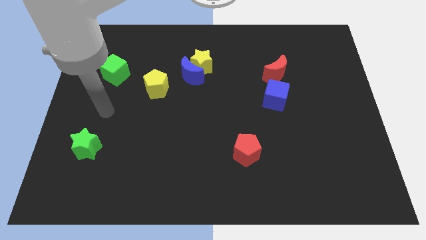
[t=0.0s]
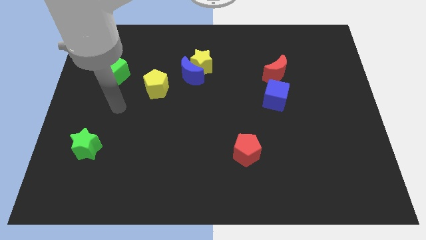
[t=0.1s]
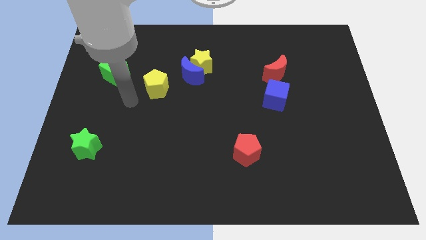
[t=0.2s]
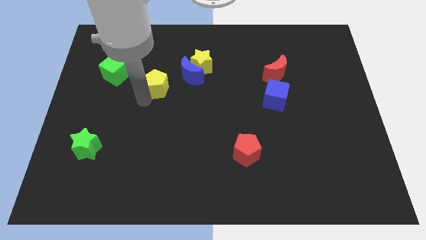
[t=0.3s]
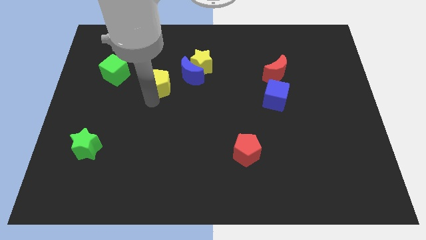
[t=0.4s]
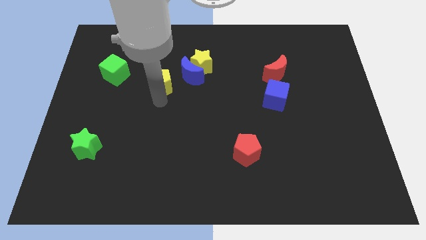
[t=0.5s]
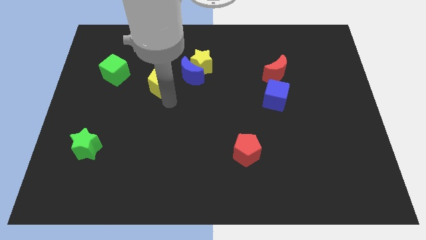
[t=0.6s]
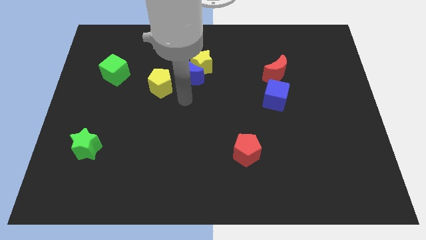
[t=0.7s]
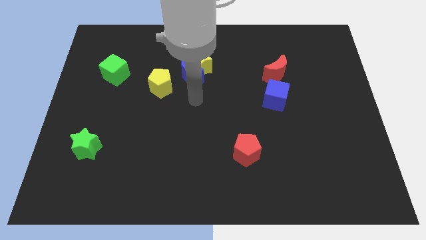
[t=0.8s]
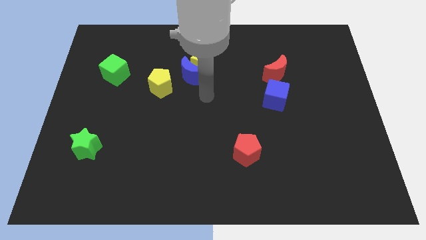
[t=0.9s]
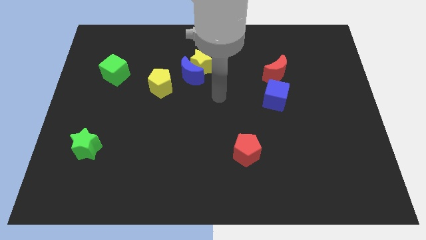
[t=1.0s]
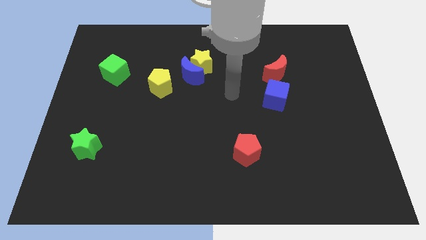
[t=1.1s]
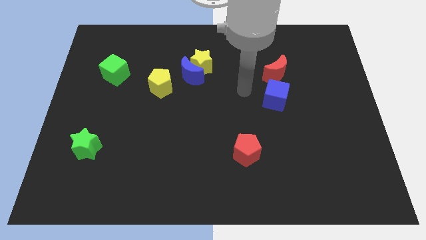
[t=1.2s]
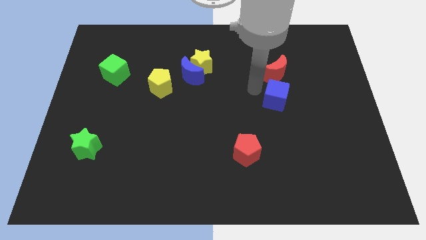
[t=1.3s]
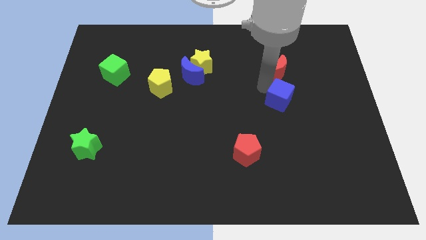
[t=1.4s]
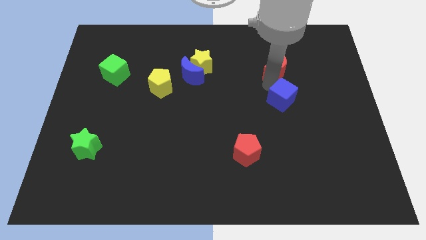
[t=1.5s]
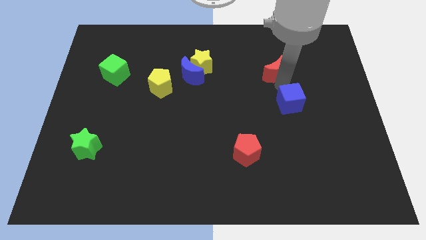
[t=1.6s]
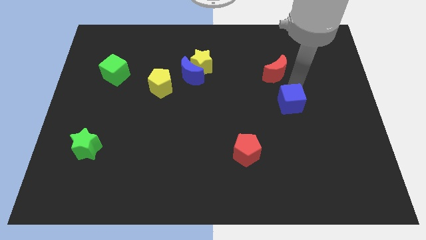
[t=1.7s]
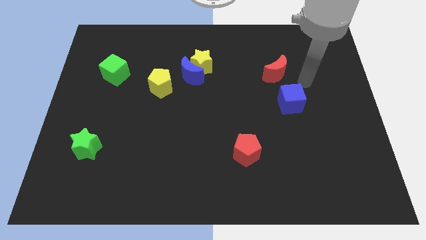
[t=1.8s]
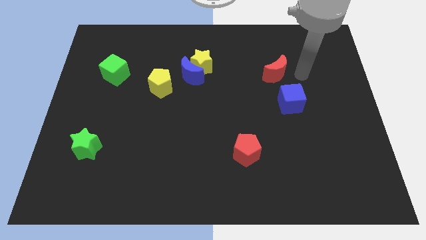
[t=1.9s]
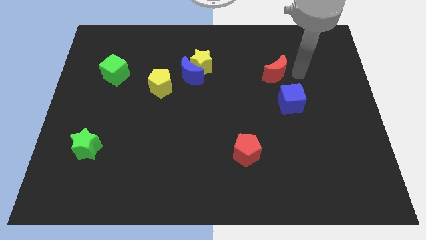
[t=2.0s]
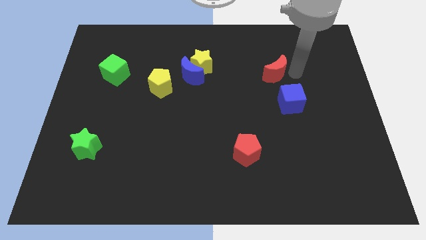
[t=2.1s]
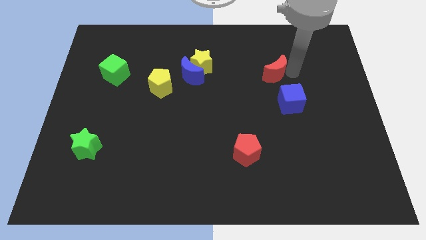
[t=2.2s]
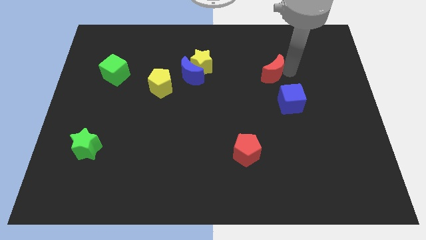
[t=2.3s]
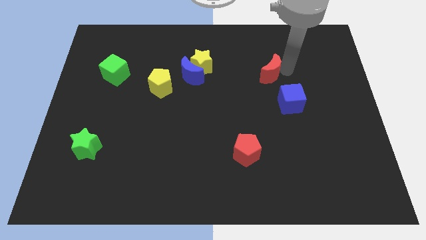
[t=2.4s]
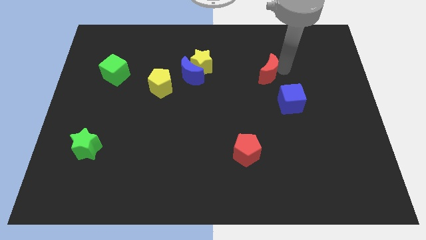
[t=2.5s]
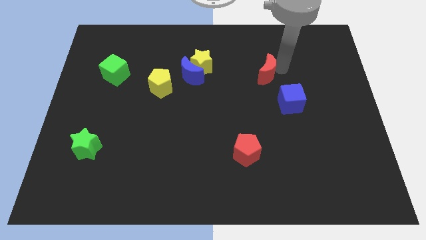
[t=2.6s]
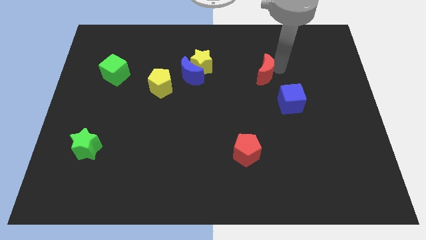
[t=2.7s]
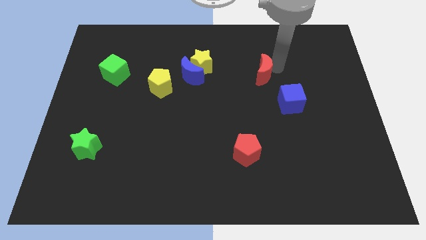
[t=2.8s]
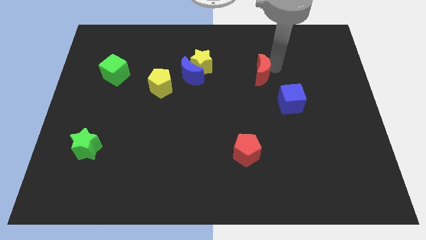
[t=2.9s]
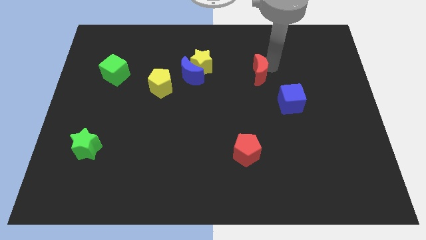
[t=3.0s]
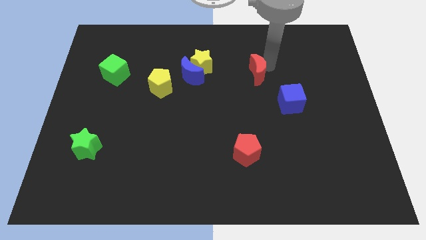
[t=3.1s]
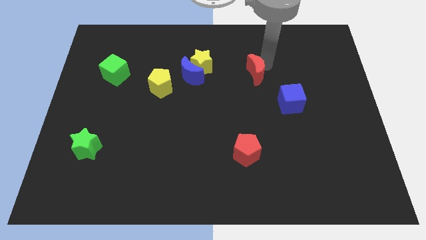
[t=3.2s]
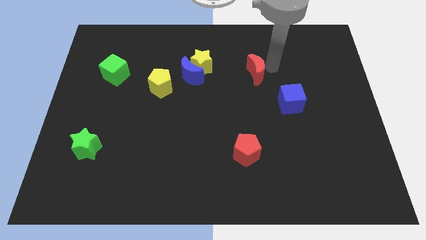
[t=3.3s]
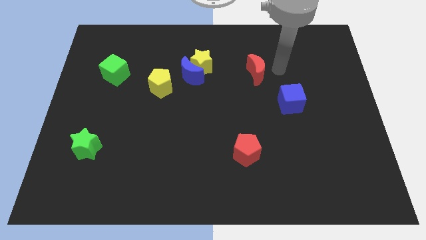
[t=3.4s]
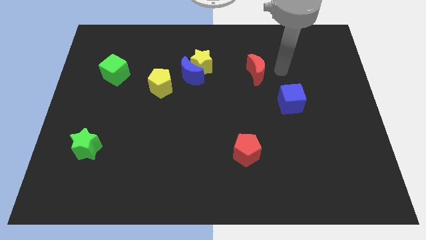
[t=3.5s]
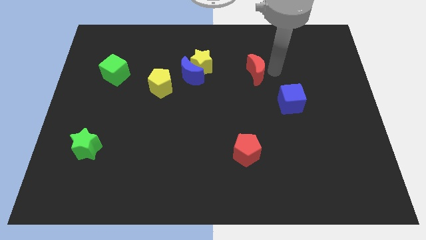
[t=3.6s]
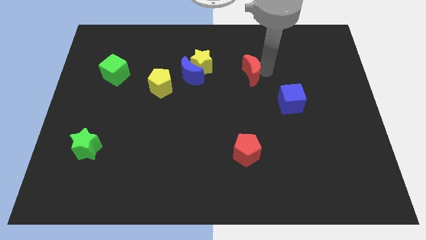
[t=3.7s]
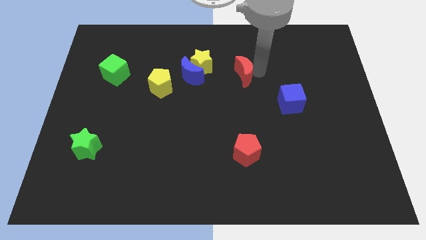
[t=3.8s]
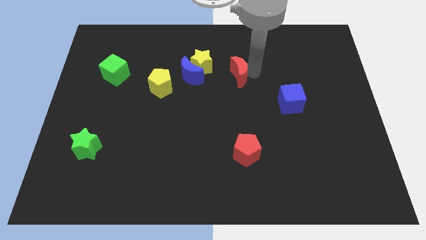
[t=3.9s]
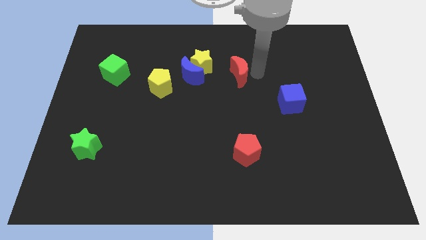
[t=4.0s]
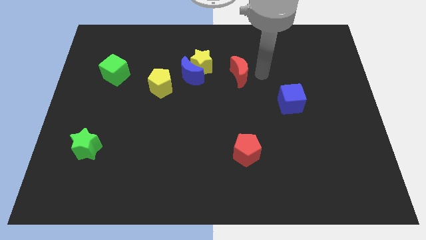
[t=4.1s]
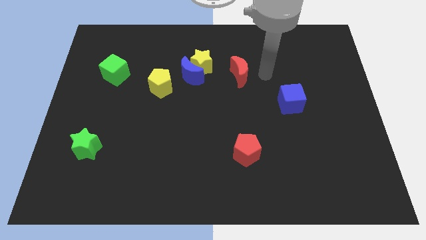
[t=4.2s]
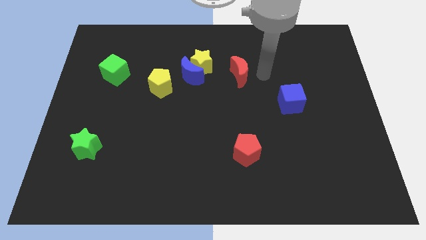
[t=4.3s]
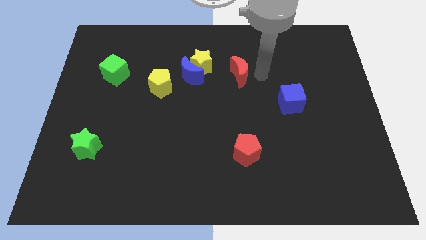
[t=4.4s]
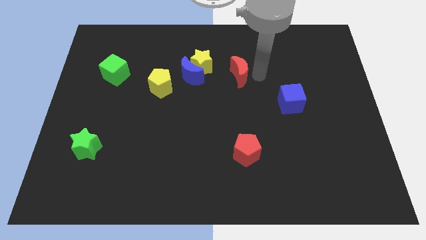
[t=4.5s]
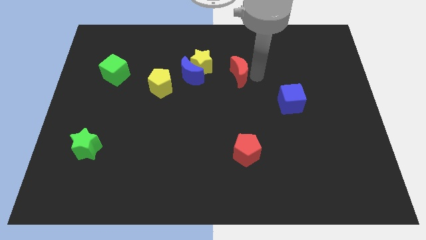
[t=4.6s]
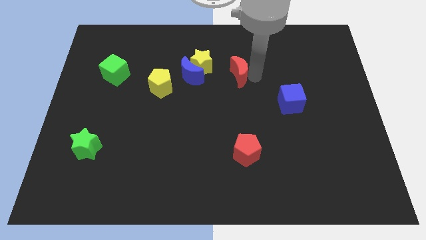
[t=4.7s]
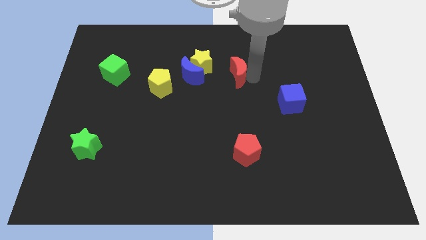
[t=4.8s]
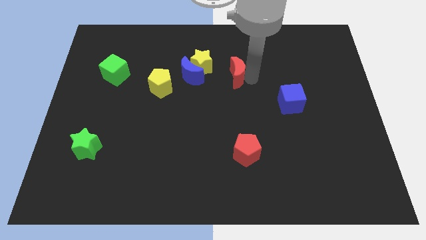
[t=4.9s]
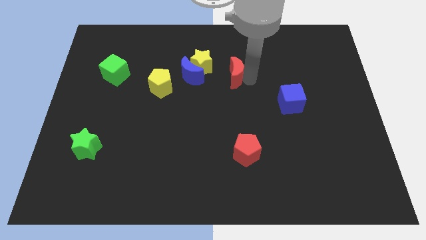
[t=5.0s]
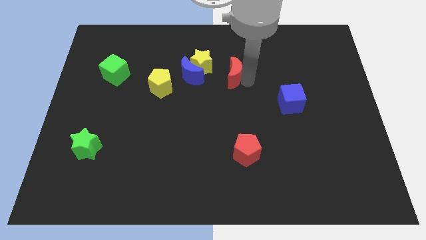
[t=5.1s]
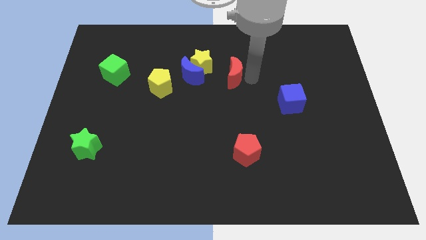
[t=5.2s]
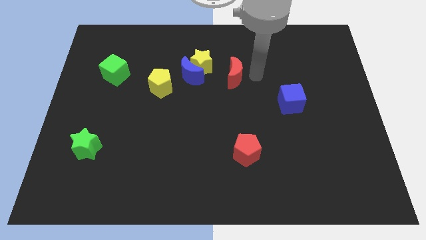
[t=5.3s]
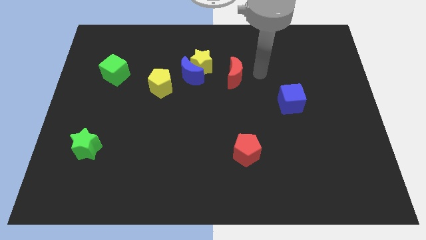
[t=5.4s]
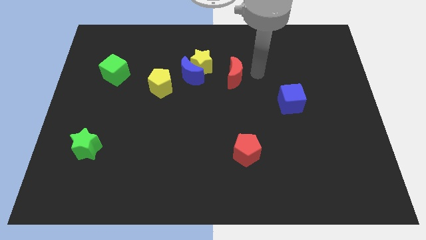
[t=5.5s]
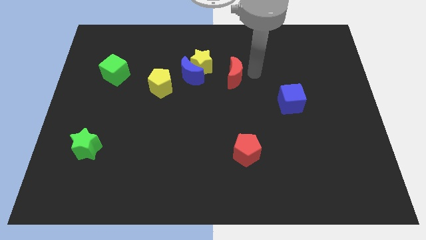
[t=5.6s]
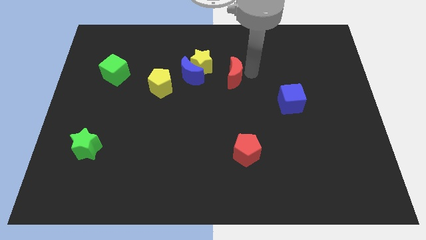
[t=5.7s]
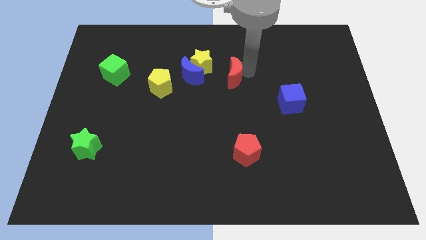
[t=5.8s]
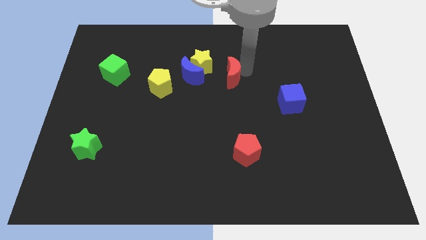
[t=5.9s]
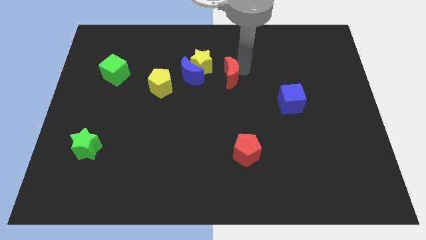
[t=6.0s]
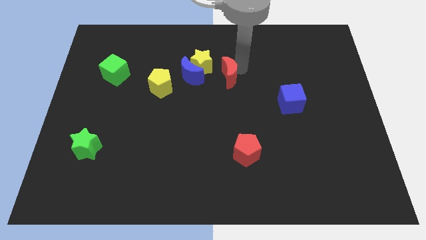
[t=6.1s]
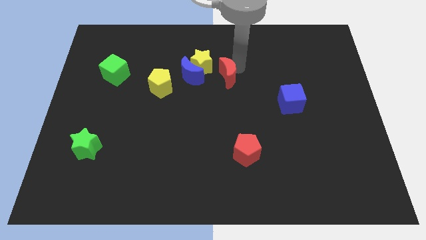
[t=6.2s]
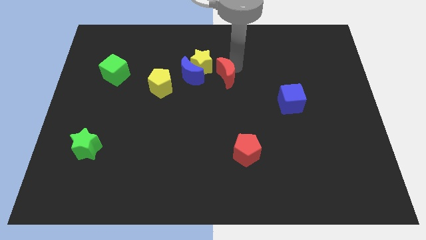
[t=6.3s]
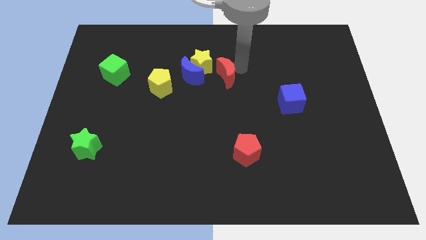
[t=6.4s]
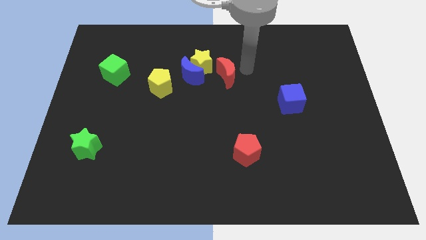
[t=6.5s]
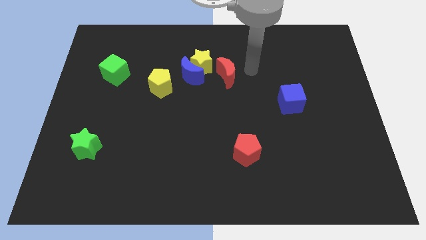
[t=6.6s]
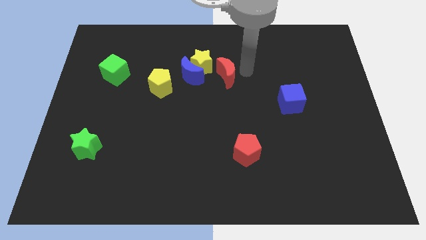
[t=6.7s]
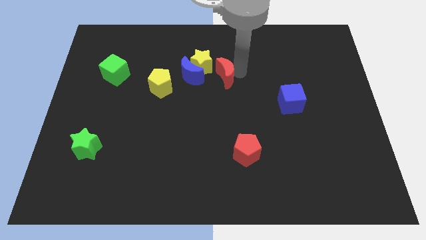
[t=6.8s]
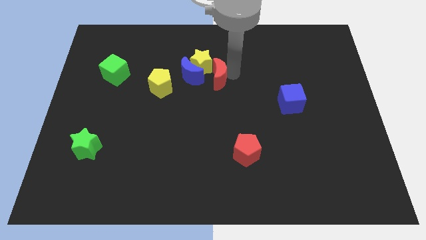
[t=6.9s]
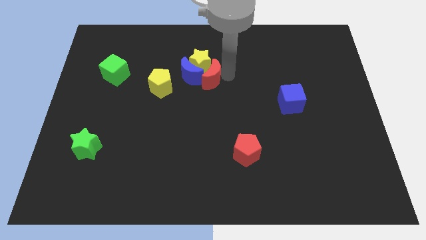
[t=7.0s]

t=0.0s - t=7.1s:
slide the red moon to the blue moon

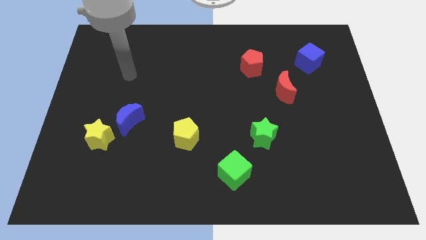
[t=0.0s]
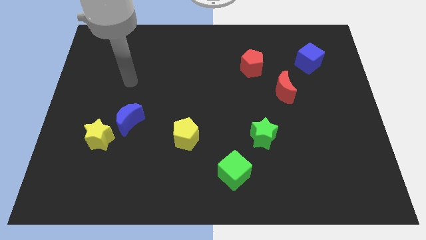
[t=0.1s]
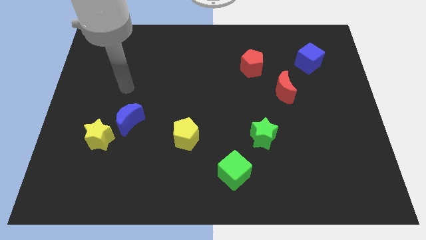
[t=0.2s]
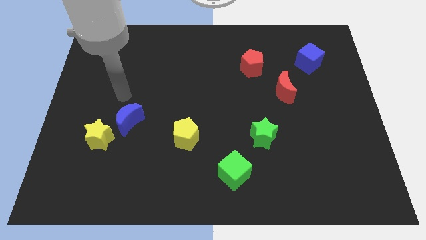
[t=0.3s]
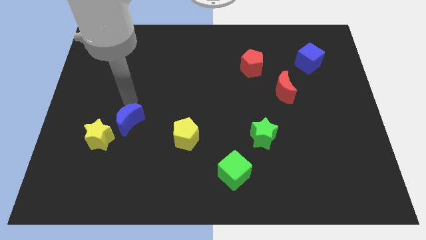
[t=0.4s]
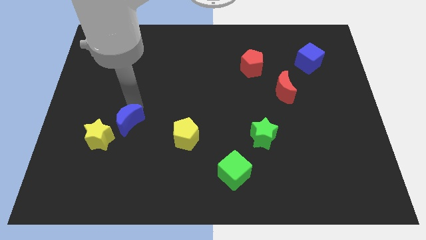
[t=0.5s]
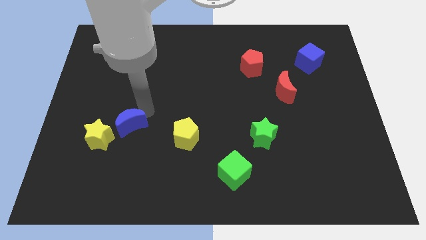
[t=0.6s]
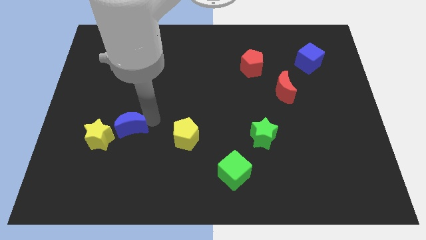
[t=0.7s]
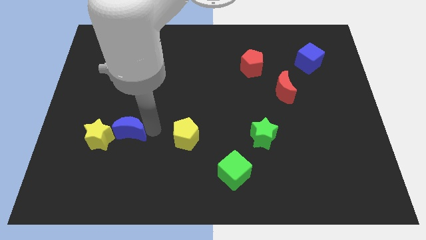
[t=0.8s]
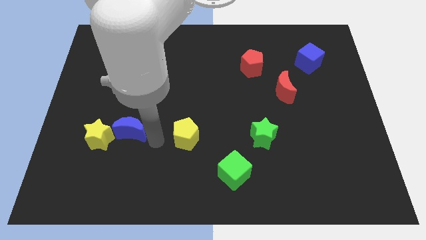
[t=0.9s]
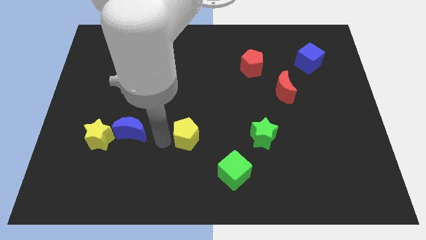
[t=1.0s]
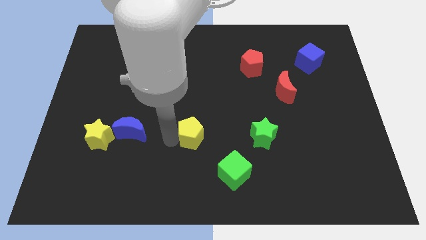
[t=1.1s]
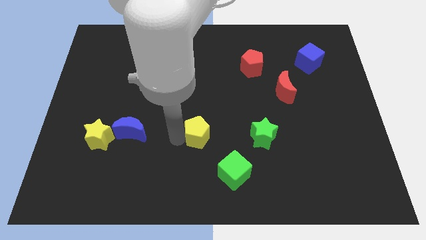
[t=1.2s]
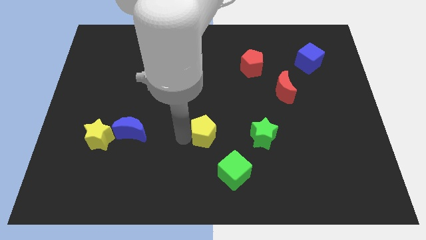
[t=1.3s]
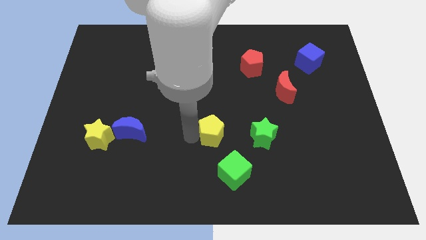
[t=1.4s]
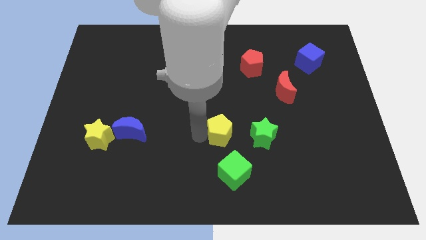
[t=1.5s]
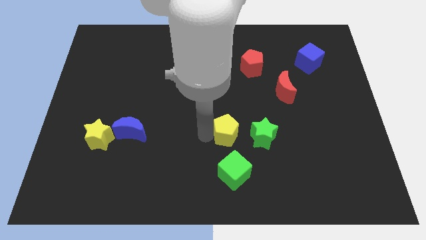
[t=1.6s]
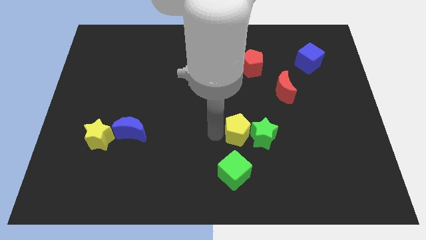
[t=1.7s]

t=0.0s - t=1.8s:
put the yellow pentagon next to the green star
